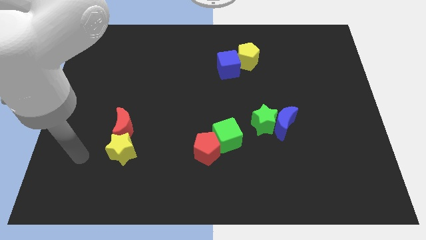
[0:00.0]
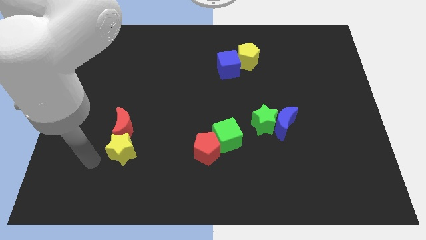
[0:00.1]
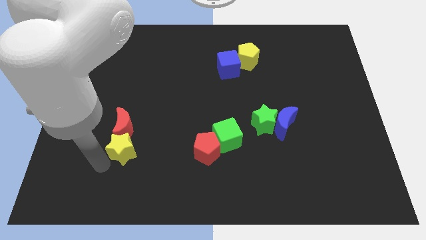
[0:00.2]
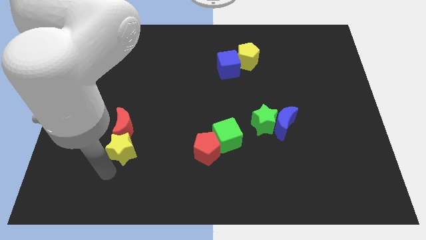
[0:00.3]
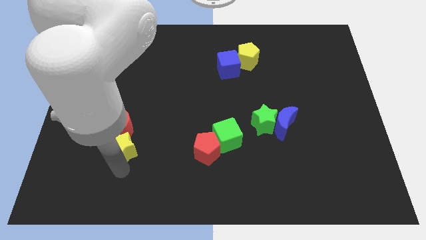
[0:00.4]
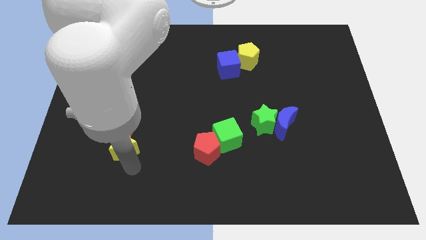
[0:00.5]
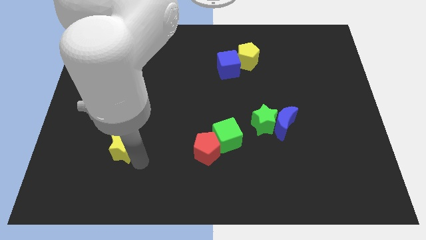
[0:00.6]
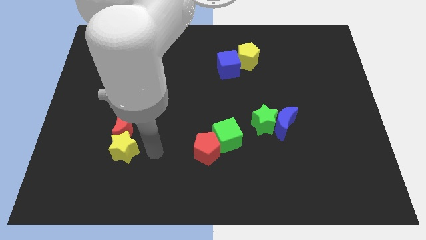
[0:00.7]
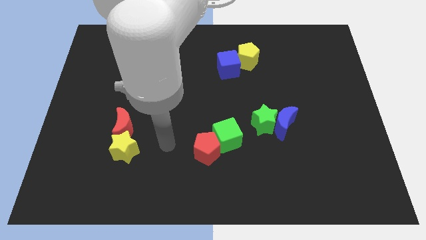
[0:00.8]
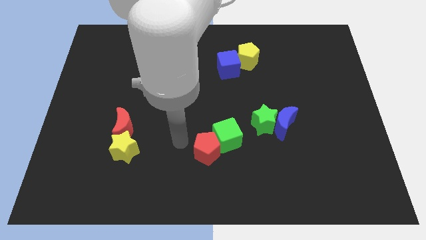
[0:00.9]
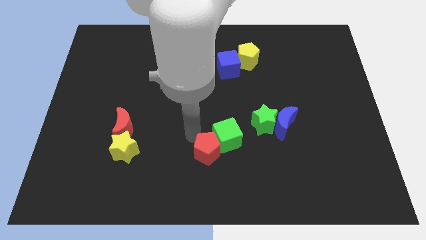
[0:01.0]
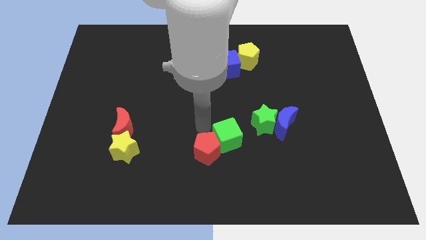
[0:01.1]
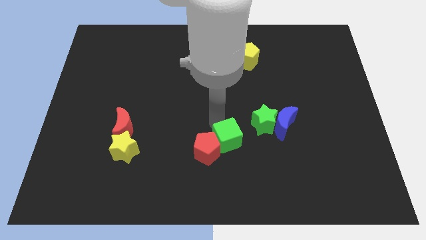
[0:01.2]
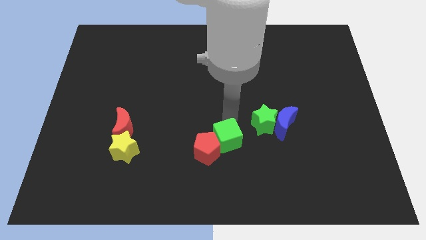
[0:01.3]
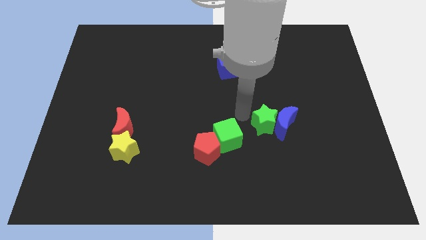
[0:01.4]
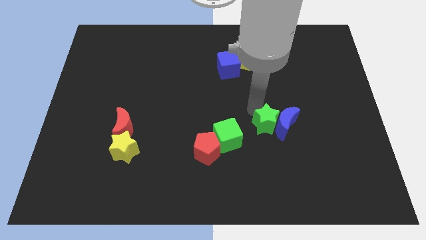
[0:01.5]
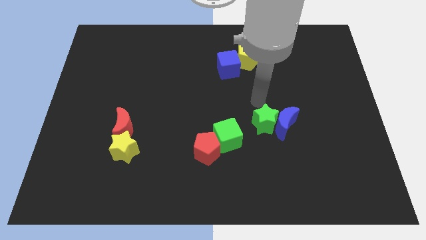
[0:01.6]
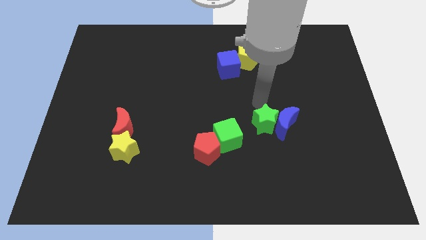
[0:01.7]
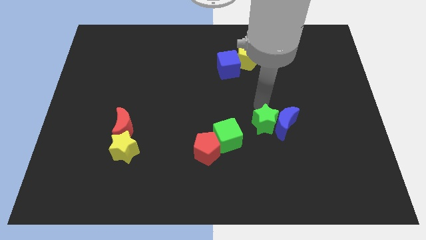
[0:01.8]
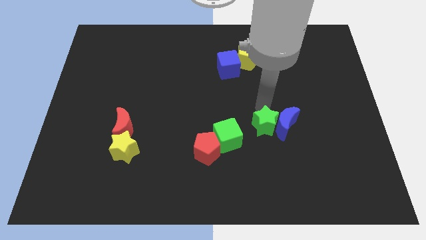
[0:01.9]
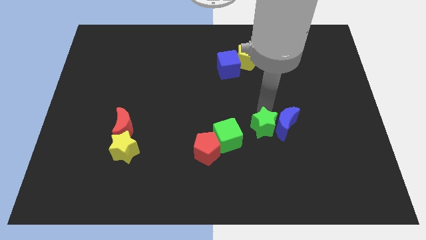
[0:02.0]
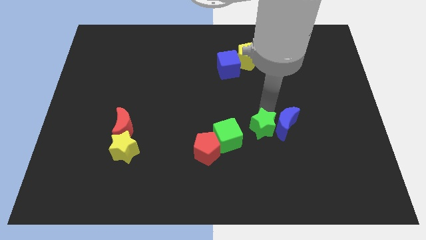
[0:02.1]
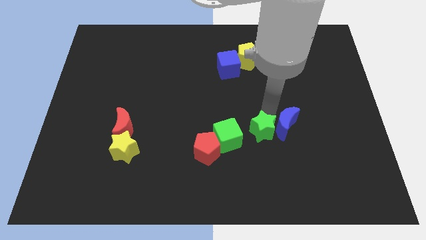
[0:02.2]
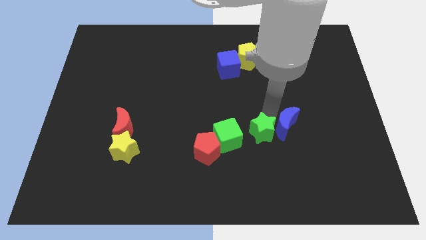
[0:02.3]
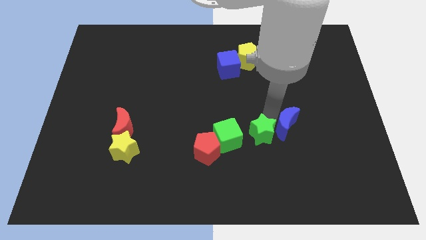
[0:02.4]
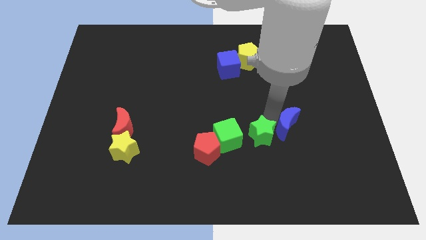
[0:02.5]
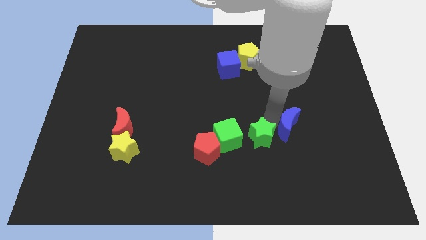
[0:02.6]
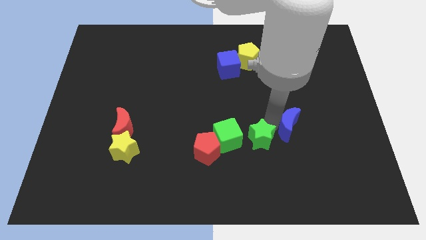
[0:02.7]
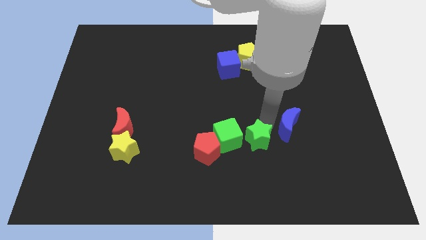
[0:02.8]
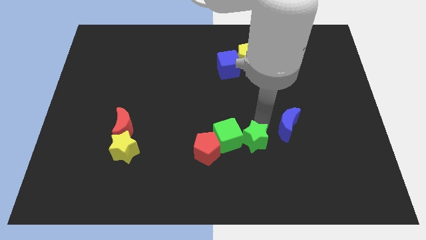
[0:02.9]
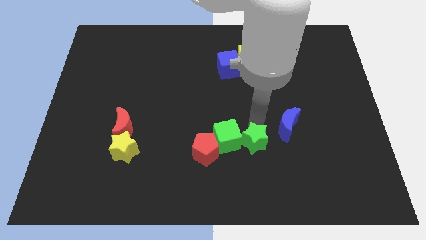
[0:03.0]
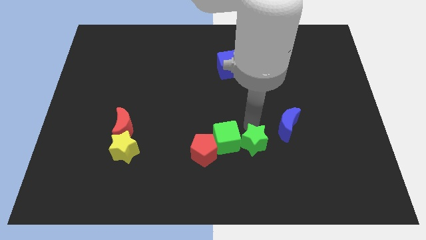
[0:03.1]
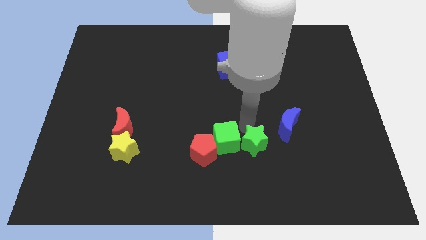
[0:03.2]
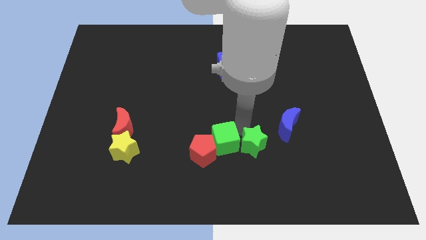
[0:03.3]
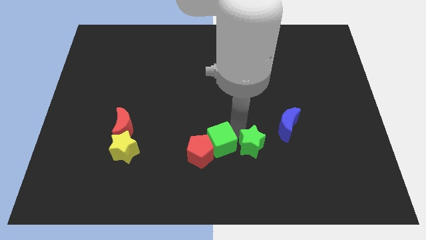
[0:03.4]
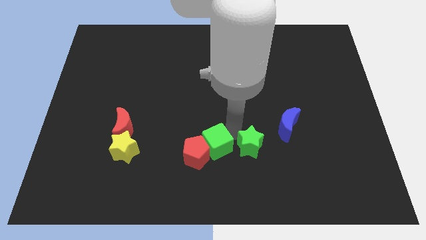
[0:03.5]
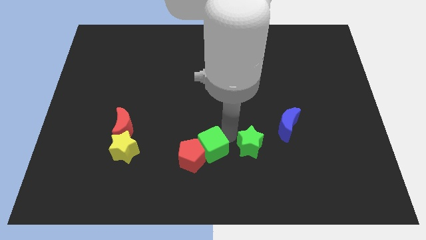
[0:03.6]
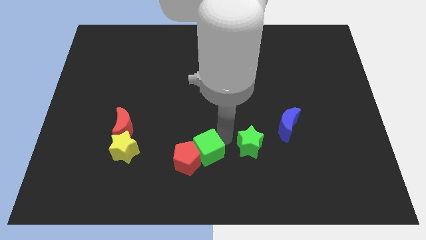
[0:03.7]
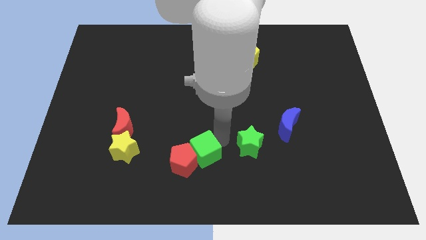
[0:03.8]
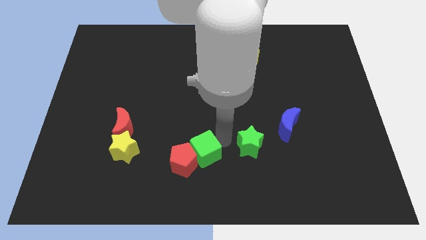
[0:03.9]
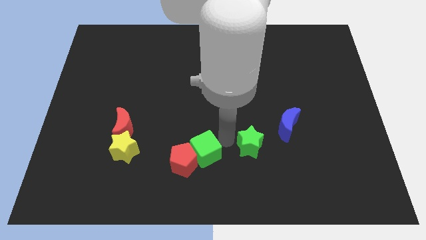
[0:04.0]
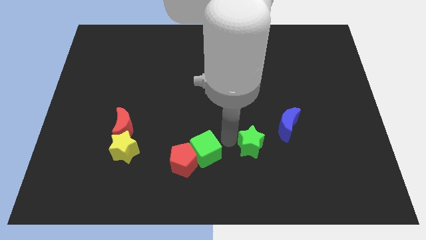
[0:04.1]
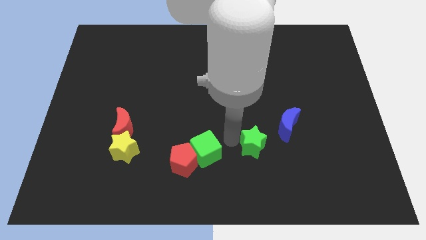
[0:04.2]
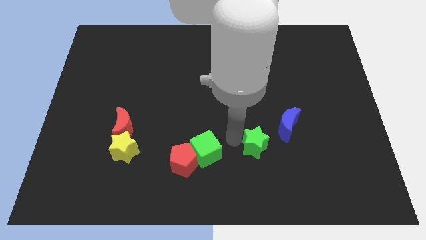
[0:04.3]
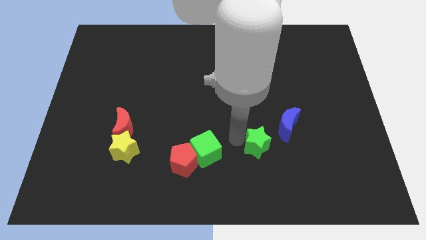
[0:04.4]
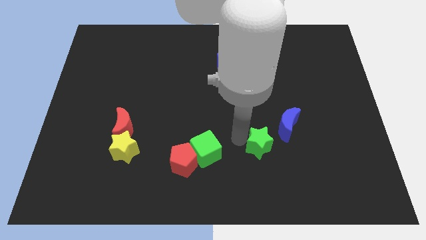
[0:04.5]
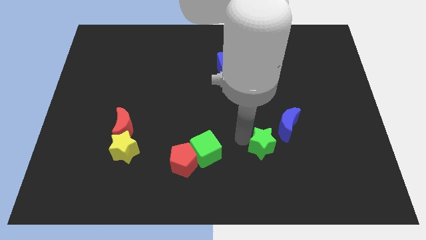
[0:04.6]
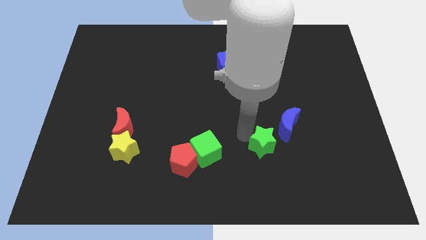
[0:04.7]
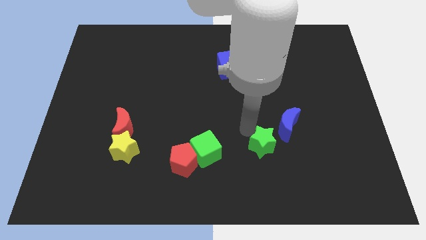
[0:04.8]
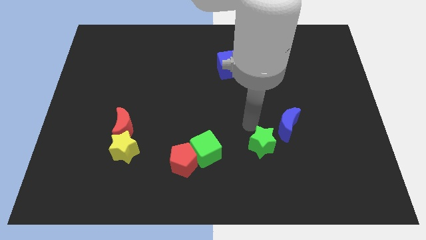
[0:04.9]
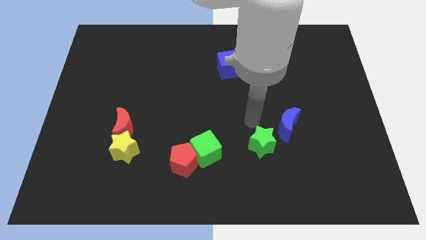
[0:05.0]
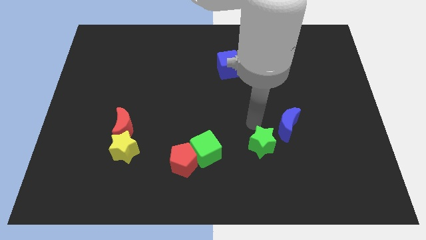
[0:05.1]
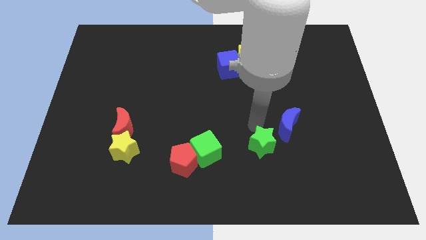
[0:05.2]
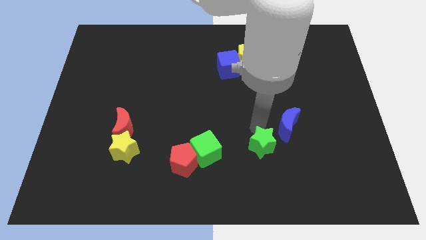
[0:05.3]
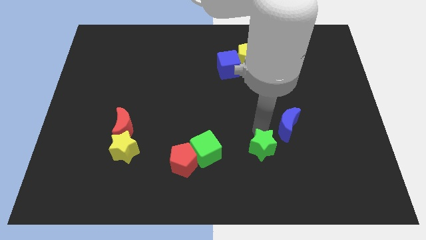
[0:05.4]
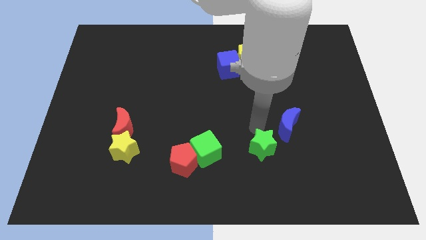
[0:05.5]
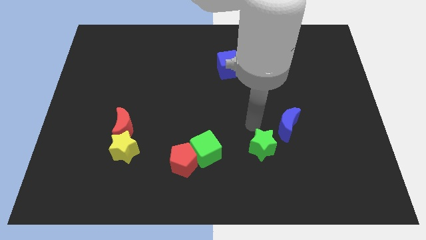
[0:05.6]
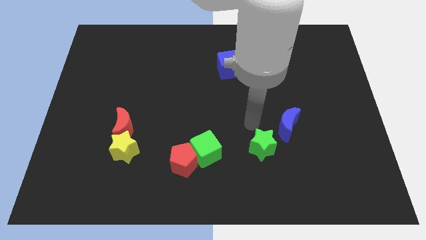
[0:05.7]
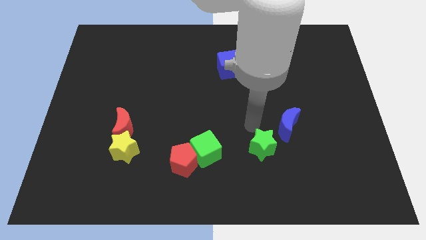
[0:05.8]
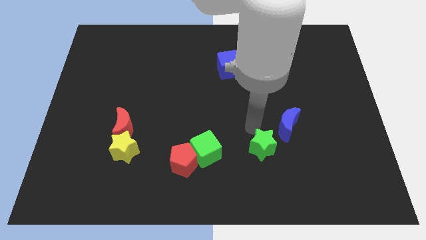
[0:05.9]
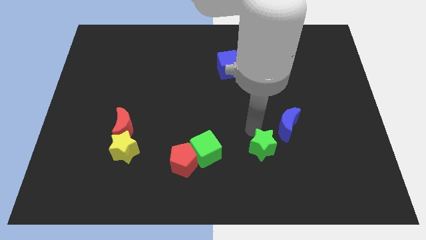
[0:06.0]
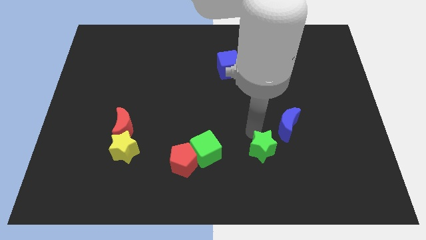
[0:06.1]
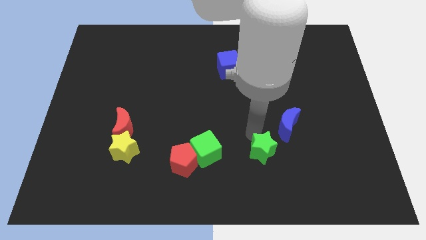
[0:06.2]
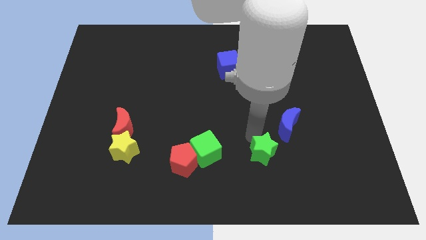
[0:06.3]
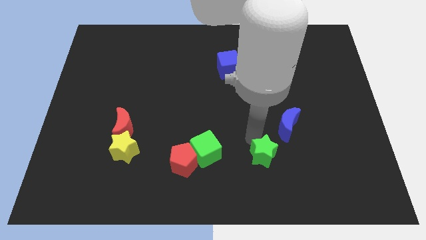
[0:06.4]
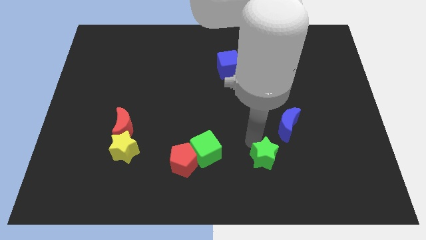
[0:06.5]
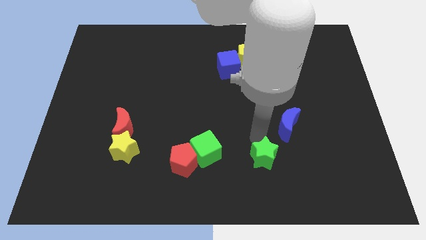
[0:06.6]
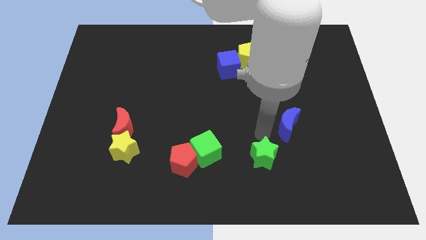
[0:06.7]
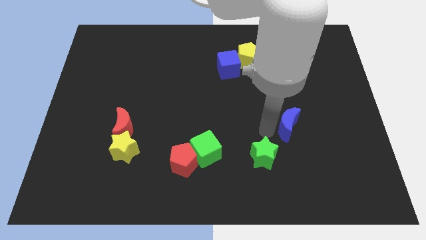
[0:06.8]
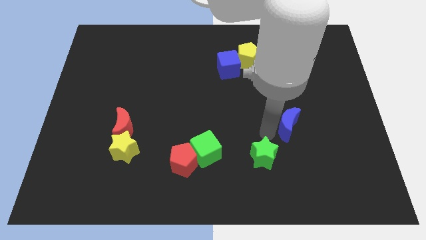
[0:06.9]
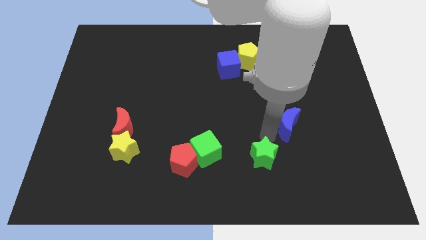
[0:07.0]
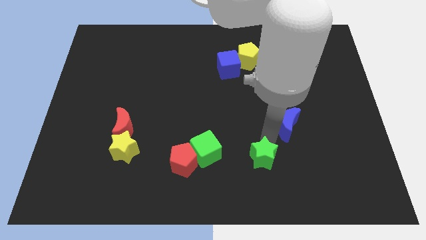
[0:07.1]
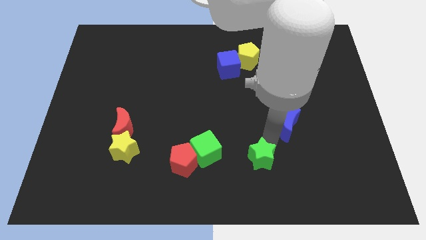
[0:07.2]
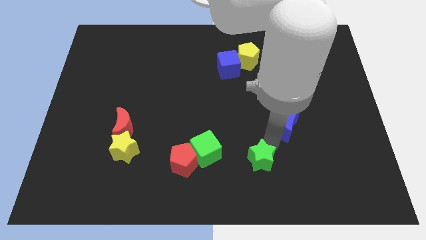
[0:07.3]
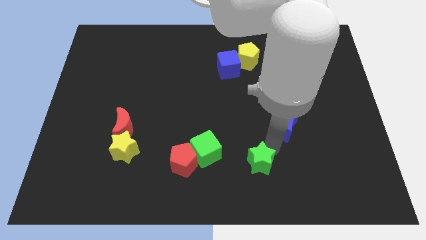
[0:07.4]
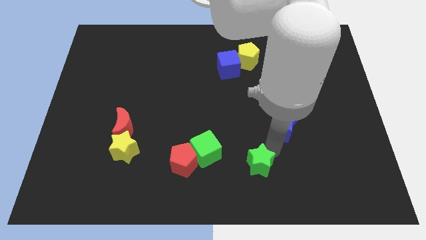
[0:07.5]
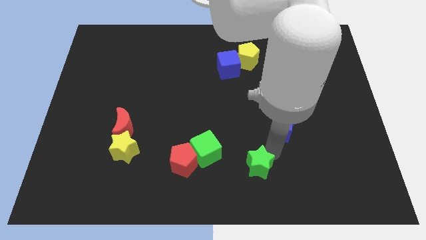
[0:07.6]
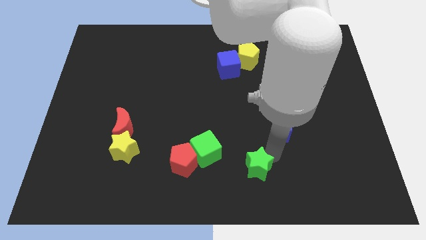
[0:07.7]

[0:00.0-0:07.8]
put the green star to the bottom
